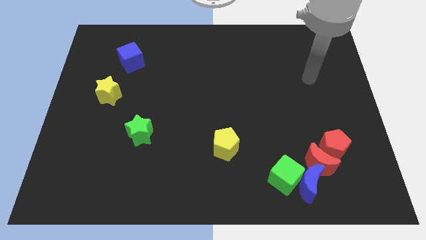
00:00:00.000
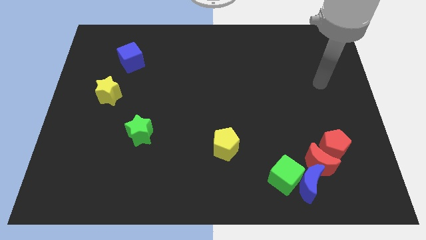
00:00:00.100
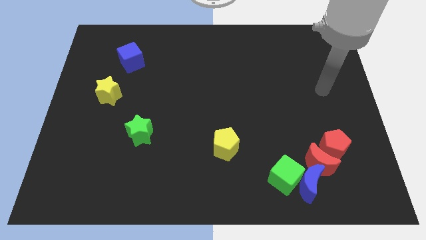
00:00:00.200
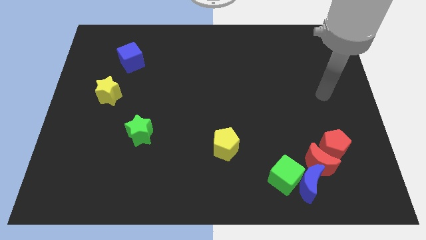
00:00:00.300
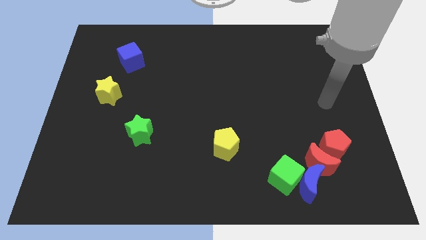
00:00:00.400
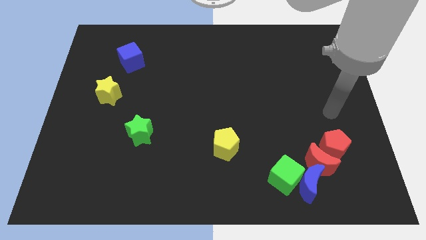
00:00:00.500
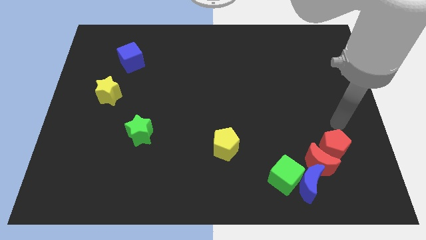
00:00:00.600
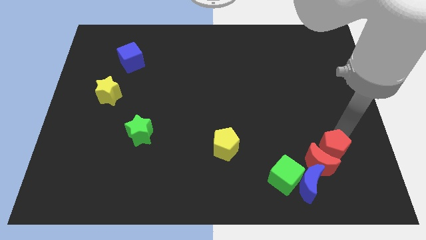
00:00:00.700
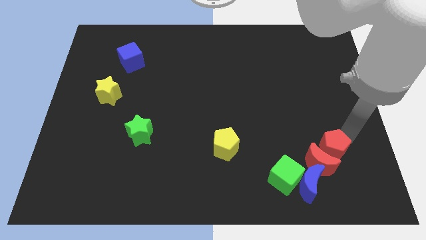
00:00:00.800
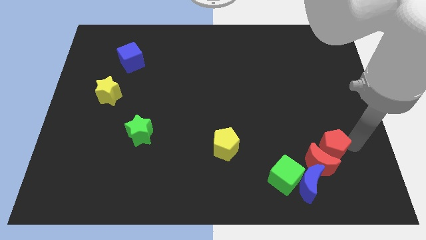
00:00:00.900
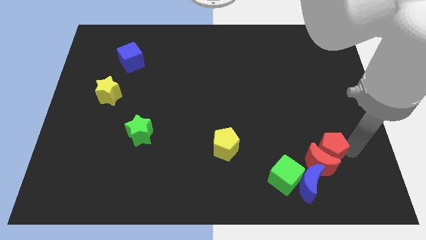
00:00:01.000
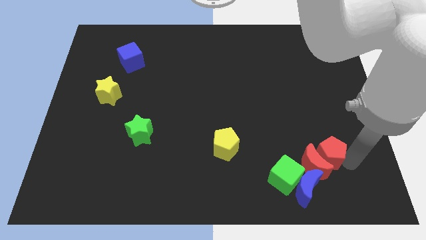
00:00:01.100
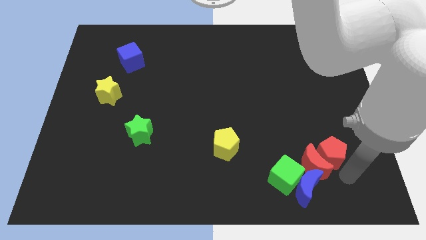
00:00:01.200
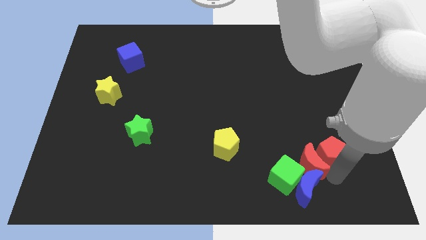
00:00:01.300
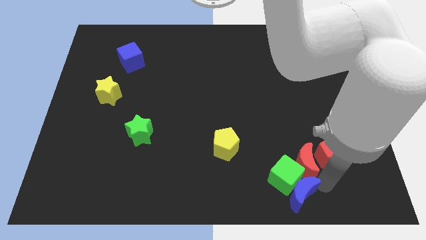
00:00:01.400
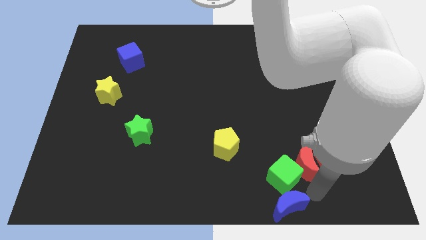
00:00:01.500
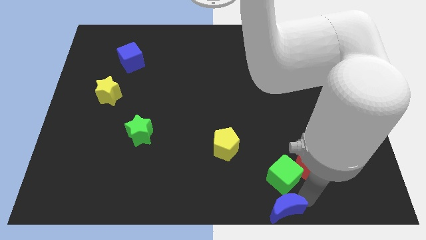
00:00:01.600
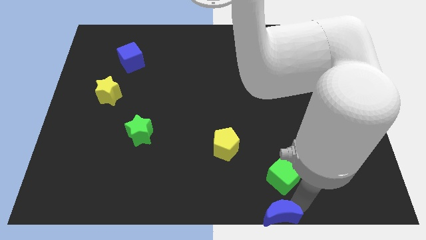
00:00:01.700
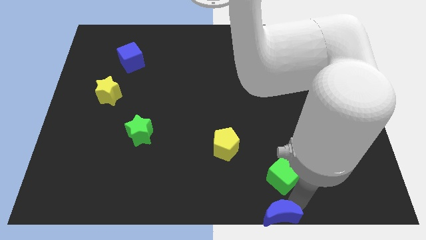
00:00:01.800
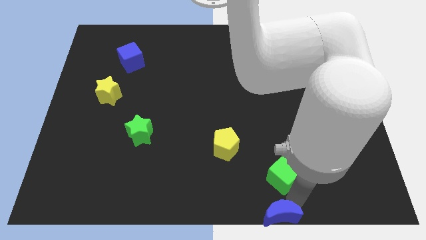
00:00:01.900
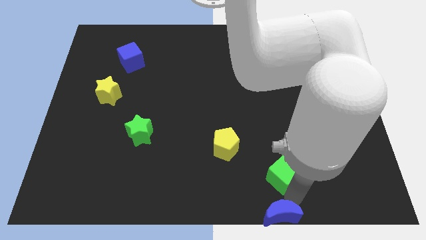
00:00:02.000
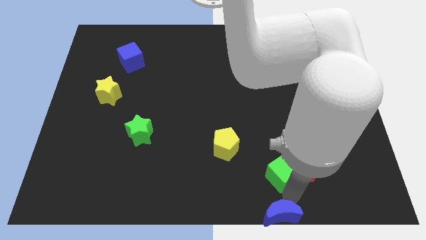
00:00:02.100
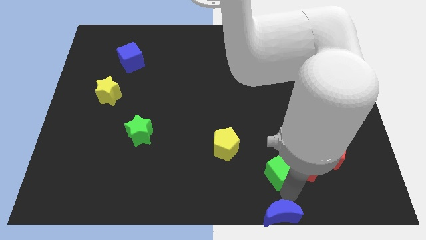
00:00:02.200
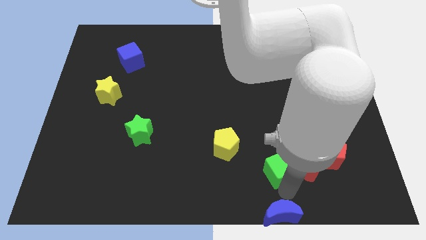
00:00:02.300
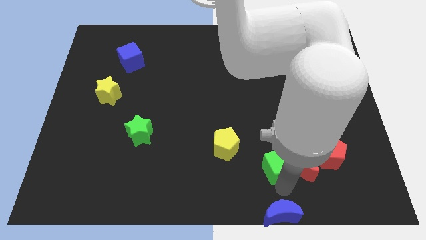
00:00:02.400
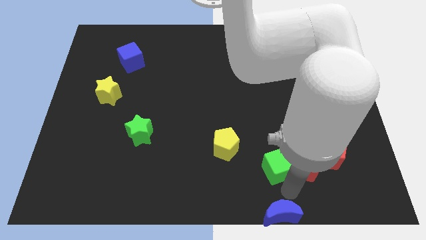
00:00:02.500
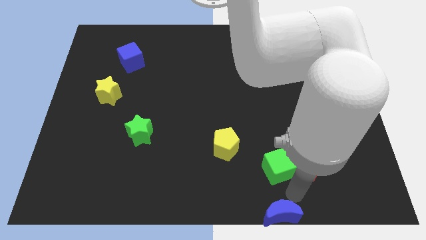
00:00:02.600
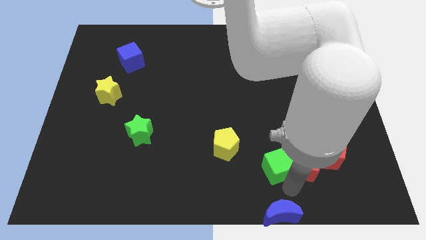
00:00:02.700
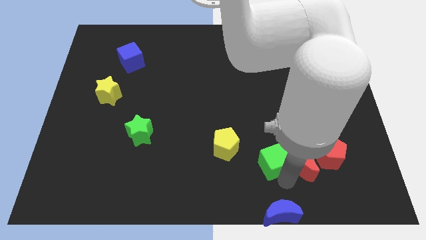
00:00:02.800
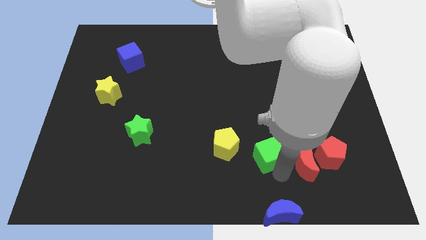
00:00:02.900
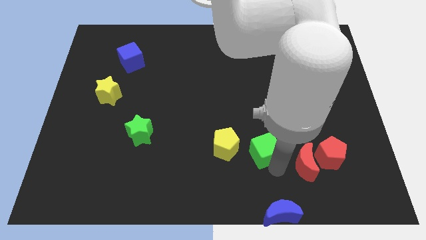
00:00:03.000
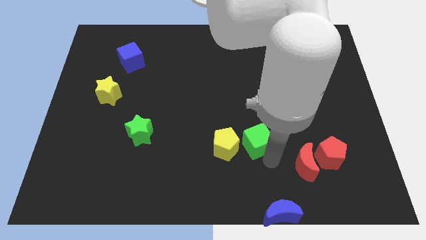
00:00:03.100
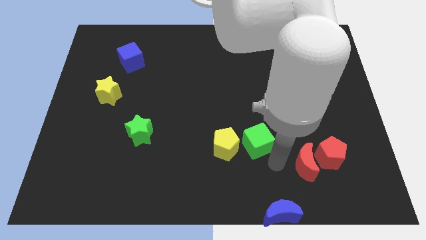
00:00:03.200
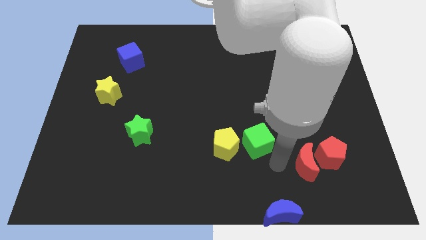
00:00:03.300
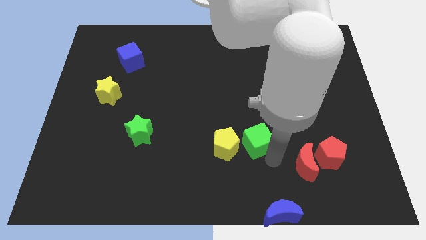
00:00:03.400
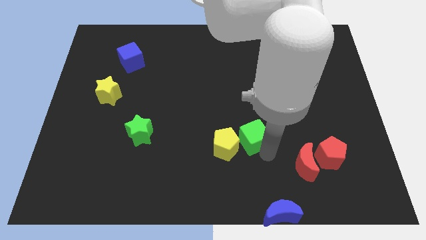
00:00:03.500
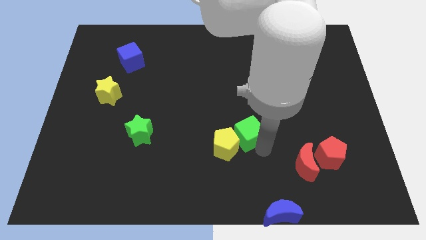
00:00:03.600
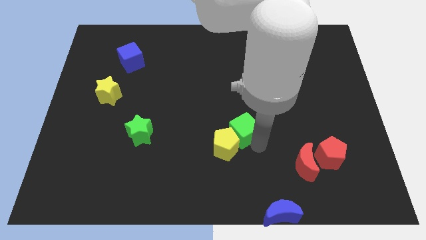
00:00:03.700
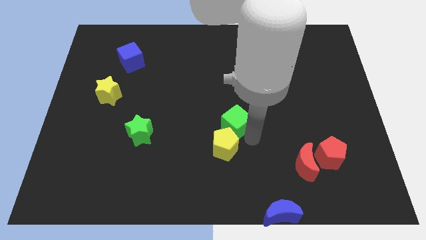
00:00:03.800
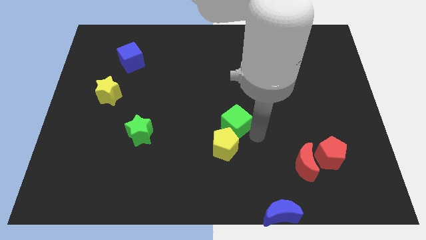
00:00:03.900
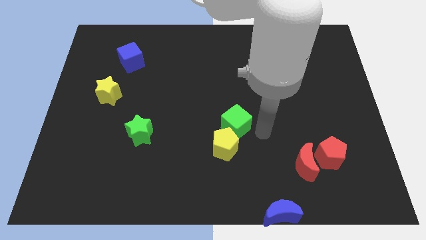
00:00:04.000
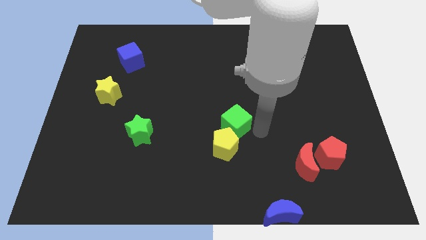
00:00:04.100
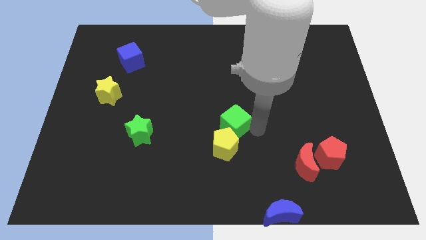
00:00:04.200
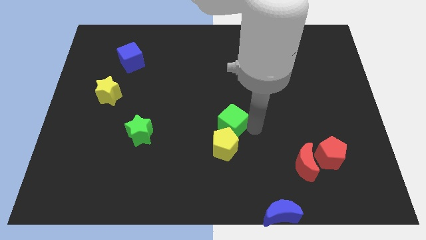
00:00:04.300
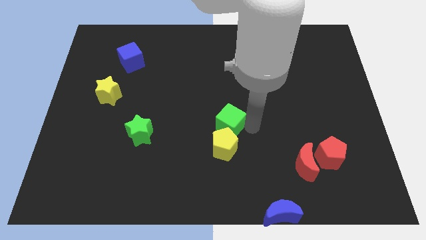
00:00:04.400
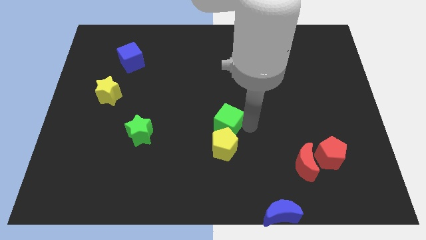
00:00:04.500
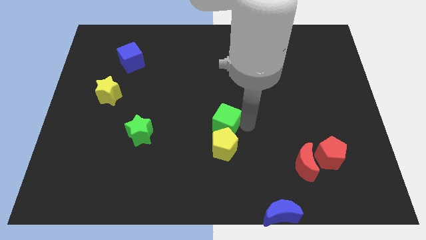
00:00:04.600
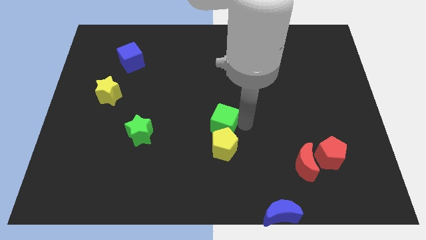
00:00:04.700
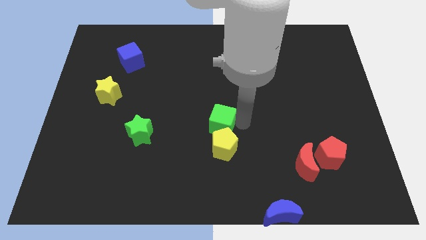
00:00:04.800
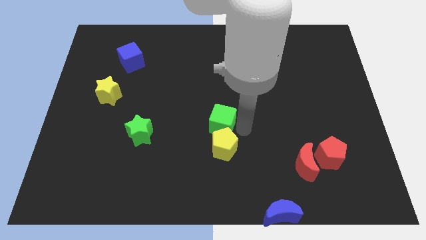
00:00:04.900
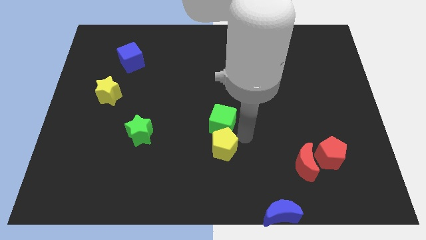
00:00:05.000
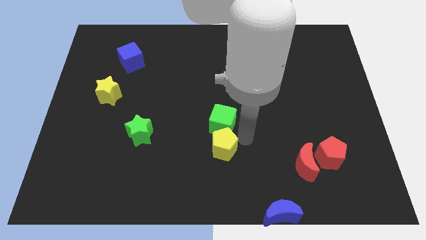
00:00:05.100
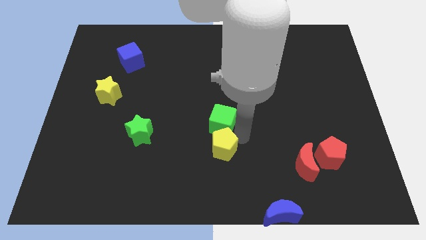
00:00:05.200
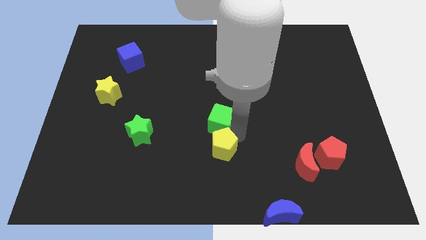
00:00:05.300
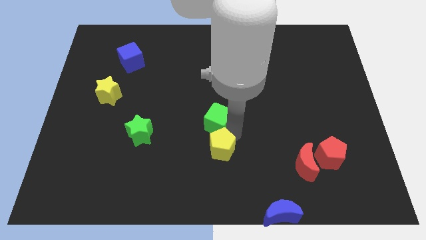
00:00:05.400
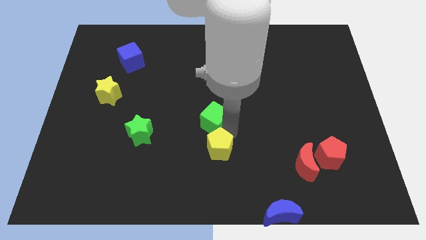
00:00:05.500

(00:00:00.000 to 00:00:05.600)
push the green cube diagonally upwards and to the left

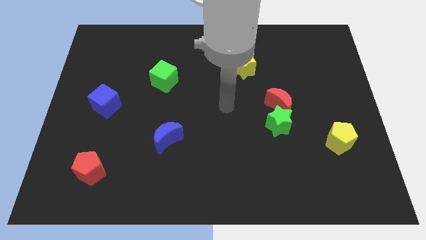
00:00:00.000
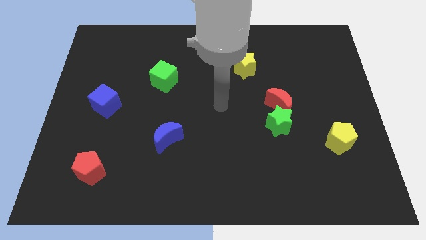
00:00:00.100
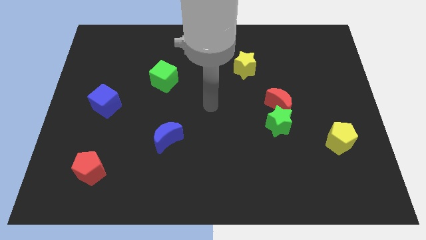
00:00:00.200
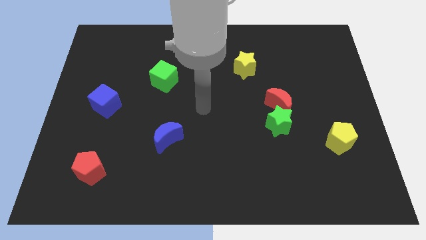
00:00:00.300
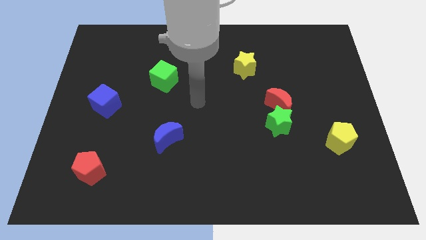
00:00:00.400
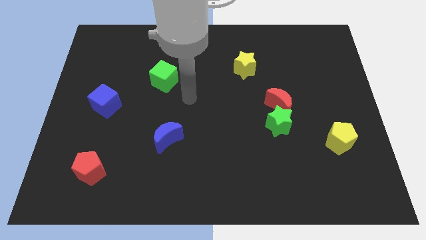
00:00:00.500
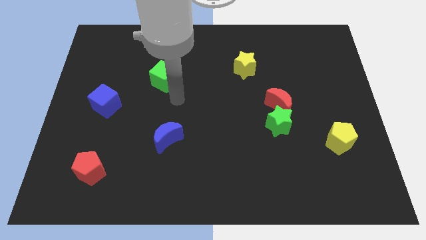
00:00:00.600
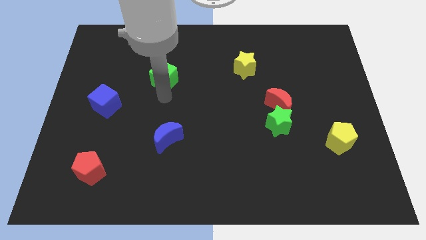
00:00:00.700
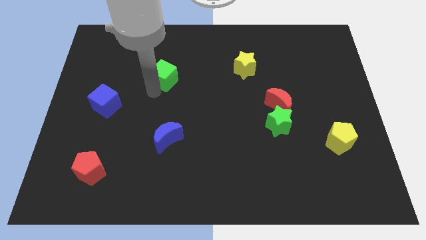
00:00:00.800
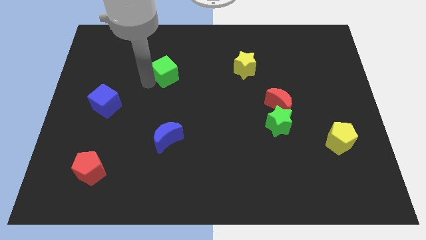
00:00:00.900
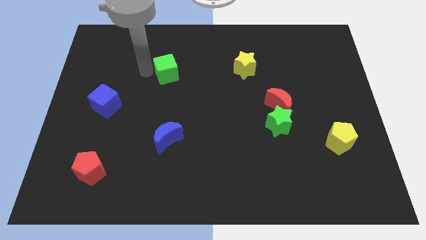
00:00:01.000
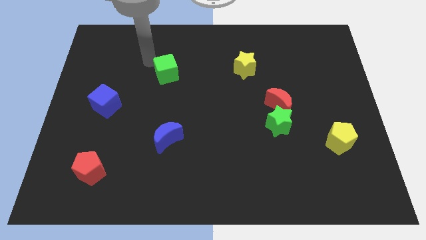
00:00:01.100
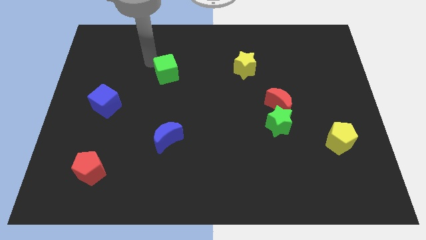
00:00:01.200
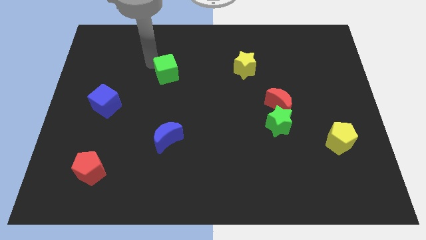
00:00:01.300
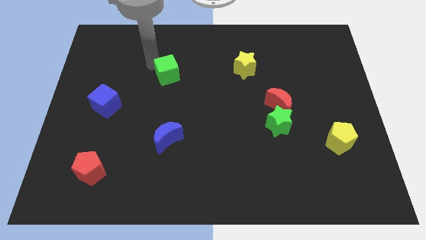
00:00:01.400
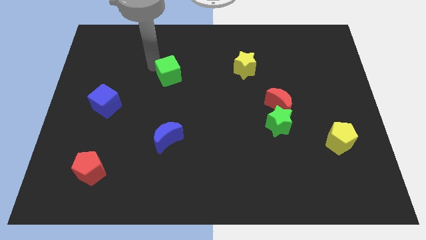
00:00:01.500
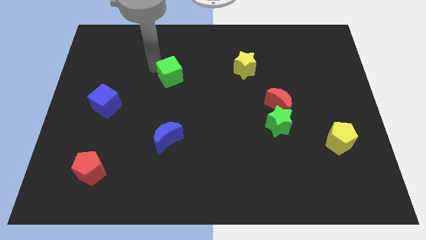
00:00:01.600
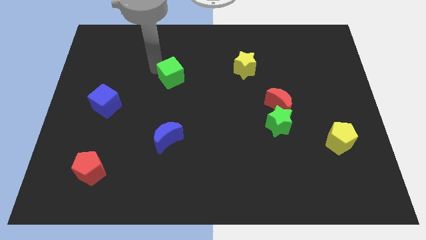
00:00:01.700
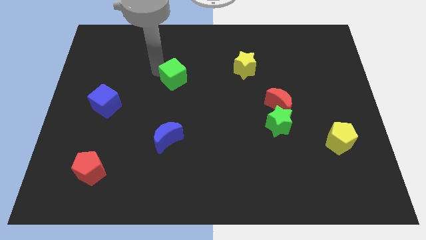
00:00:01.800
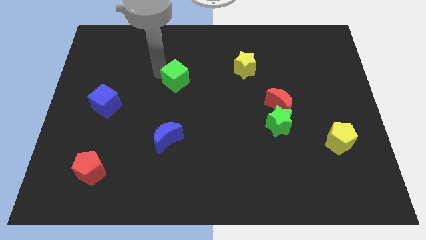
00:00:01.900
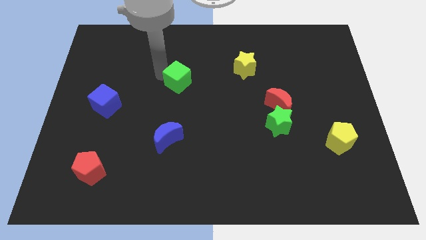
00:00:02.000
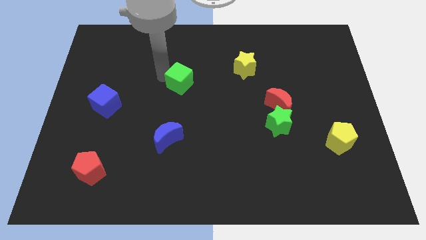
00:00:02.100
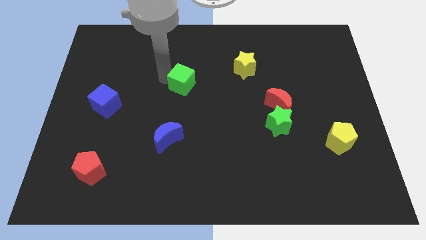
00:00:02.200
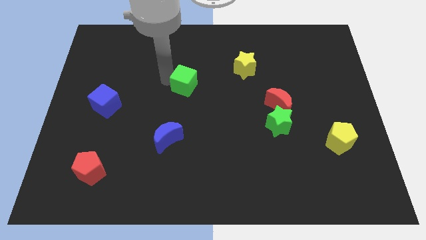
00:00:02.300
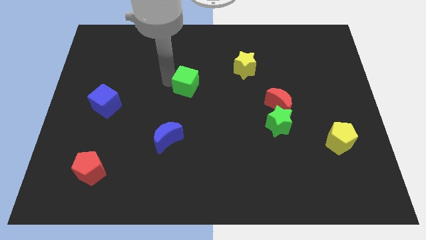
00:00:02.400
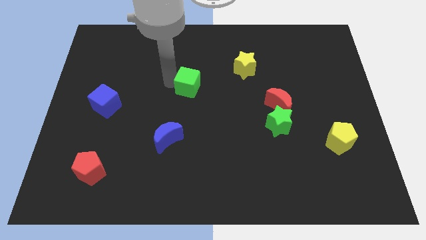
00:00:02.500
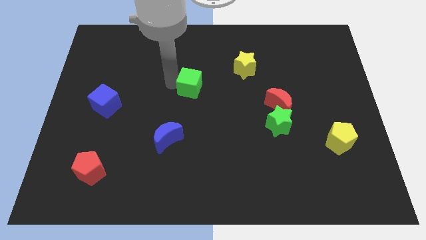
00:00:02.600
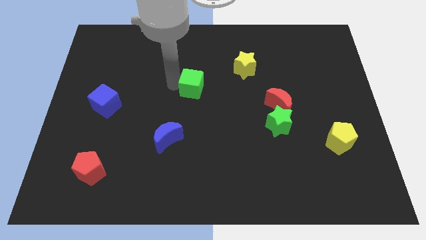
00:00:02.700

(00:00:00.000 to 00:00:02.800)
move the green cube to the right a bit
